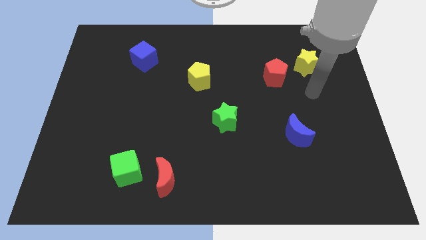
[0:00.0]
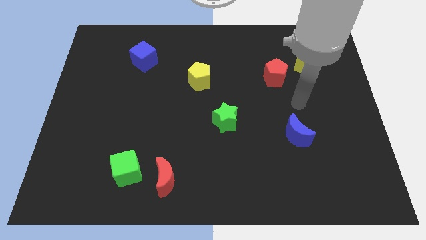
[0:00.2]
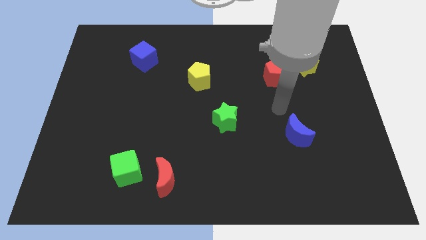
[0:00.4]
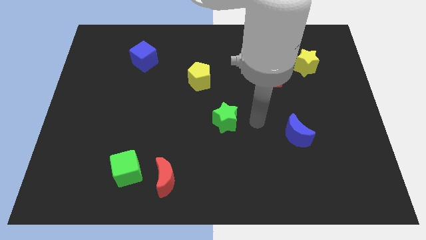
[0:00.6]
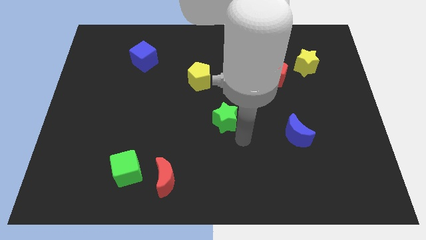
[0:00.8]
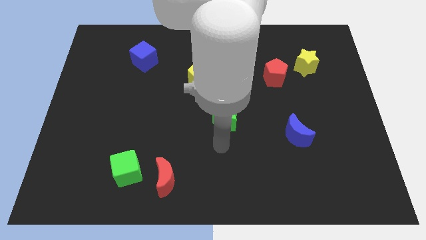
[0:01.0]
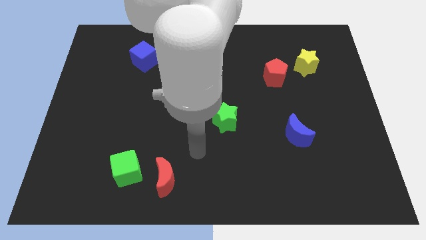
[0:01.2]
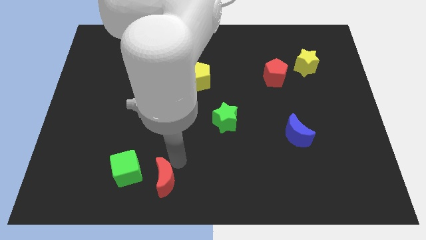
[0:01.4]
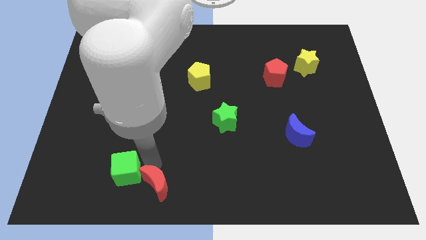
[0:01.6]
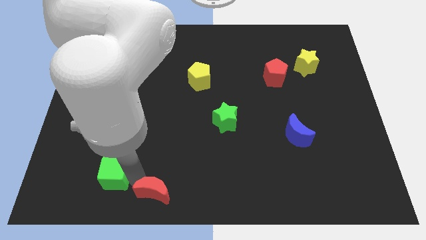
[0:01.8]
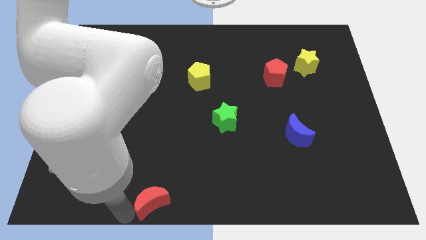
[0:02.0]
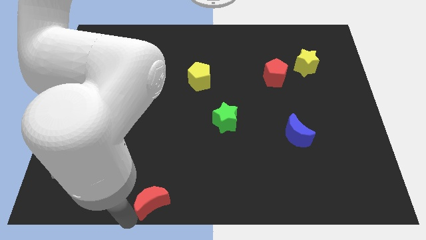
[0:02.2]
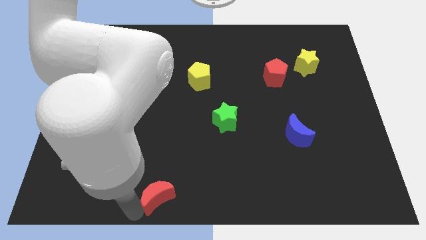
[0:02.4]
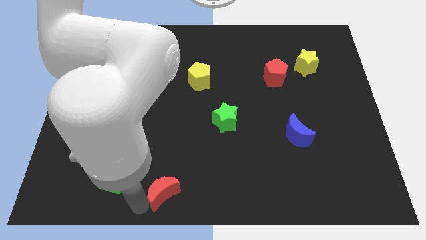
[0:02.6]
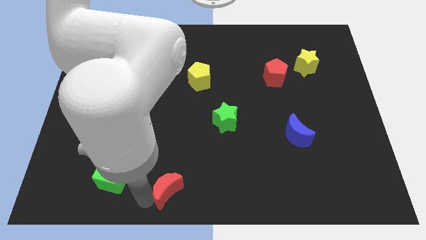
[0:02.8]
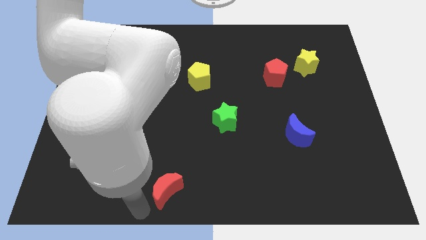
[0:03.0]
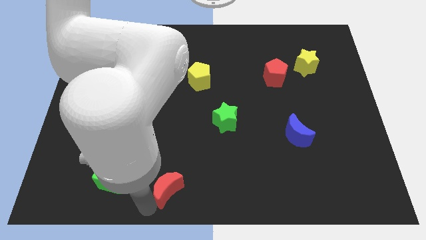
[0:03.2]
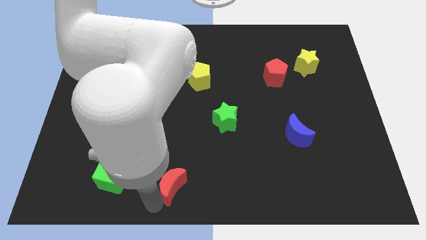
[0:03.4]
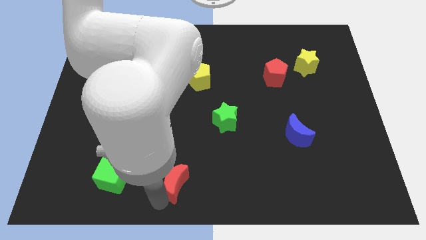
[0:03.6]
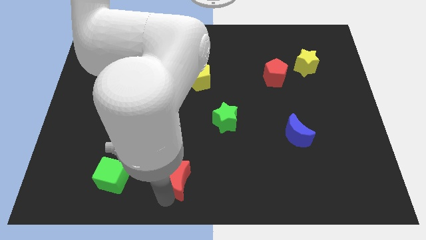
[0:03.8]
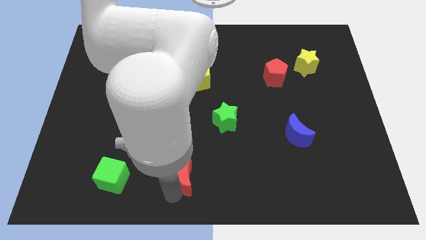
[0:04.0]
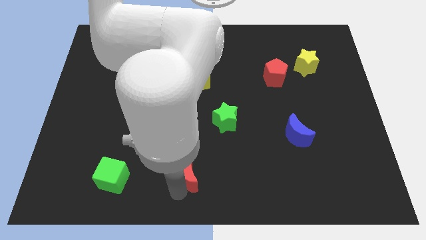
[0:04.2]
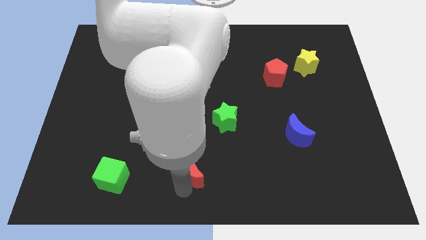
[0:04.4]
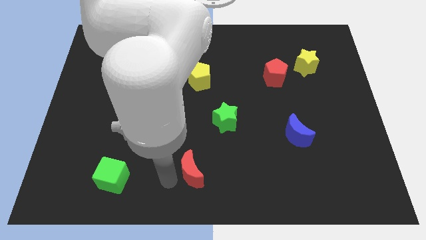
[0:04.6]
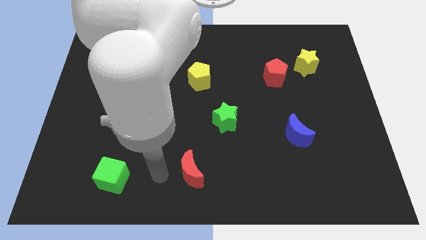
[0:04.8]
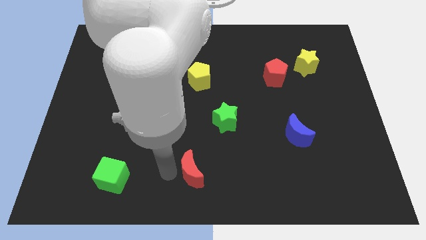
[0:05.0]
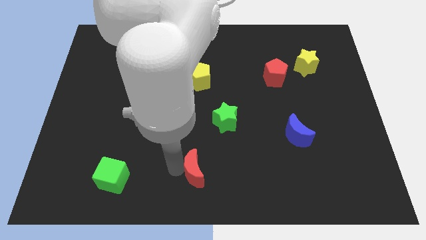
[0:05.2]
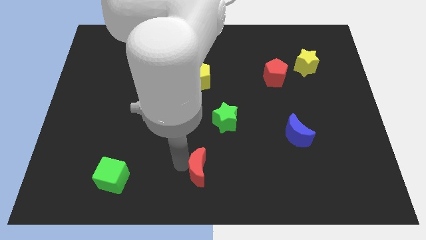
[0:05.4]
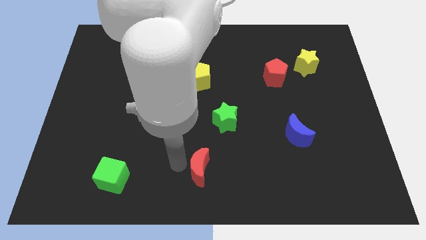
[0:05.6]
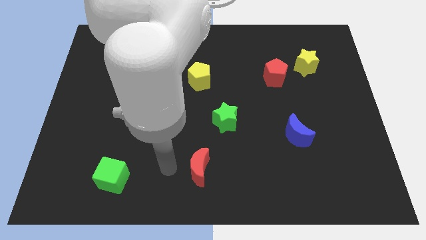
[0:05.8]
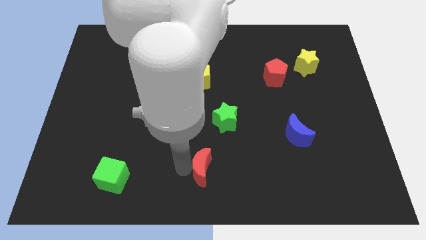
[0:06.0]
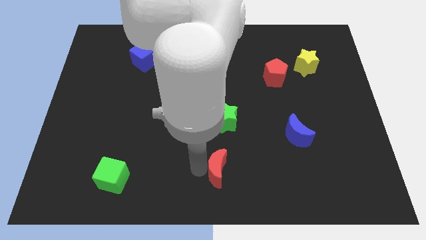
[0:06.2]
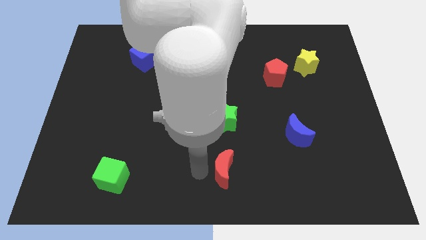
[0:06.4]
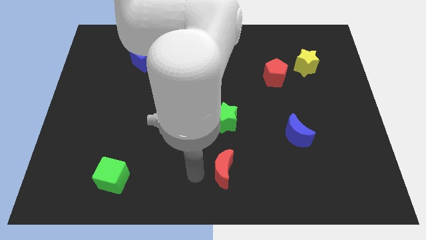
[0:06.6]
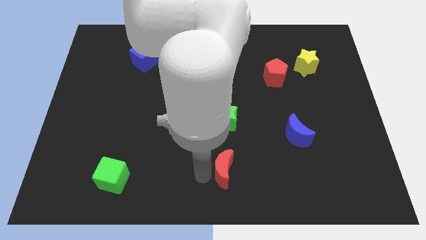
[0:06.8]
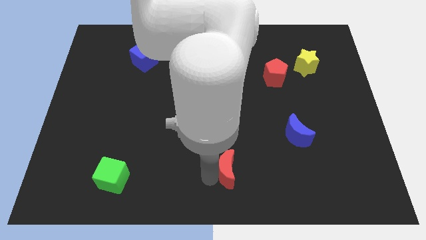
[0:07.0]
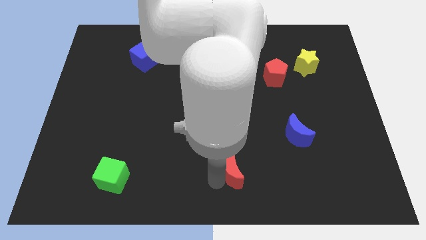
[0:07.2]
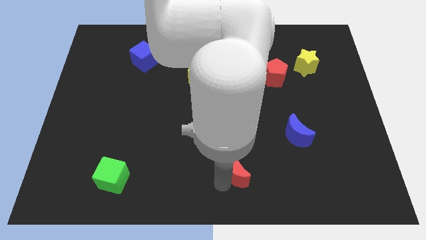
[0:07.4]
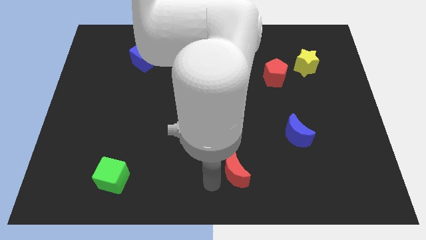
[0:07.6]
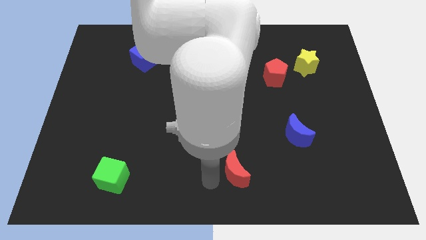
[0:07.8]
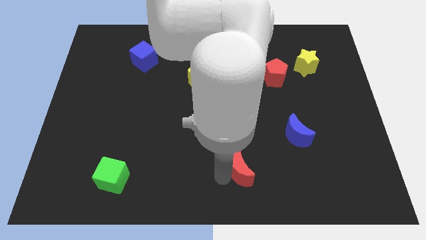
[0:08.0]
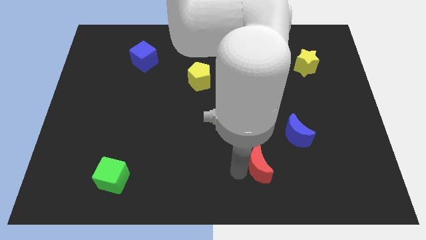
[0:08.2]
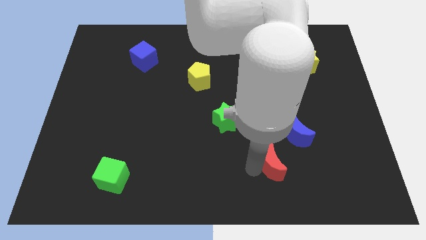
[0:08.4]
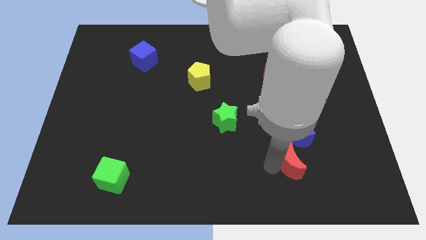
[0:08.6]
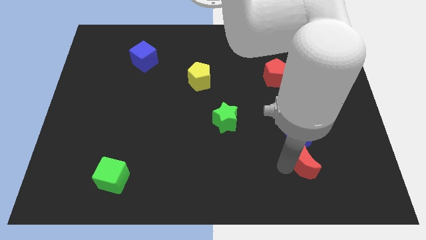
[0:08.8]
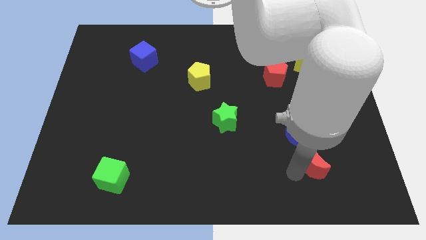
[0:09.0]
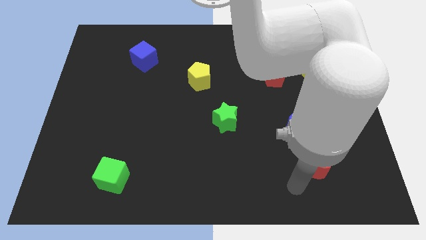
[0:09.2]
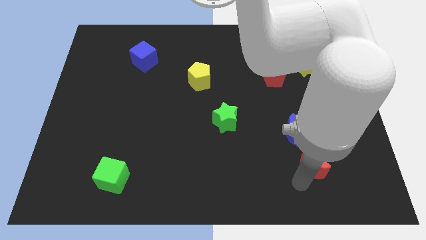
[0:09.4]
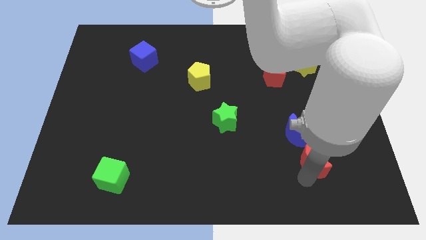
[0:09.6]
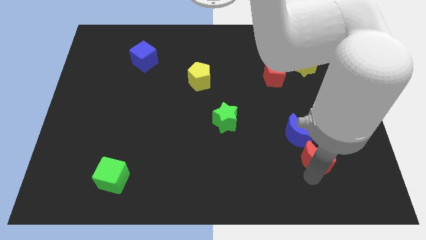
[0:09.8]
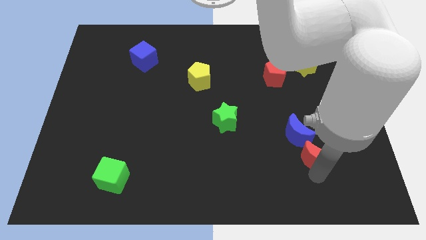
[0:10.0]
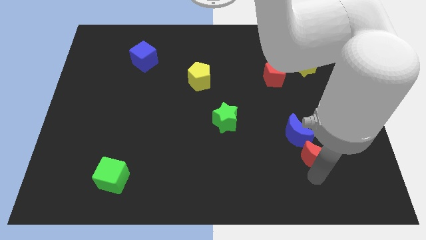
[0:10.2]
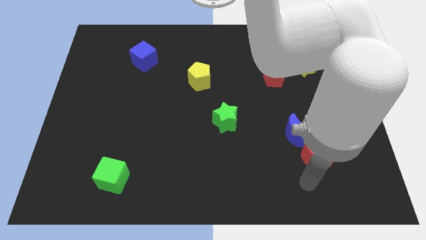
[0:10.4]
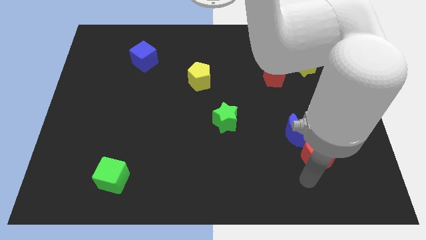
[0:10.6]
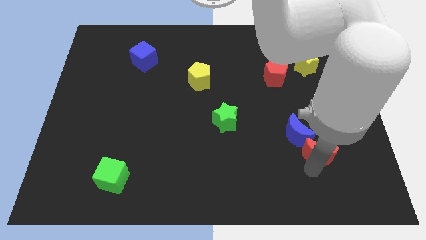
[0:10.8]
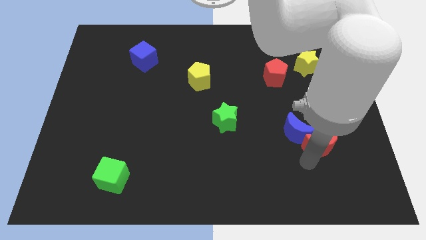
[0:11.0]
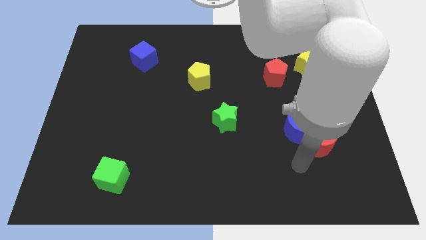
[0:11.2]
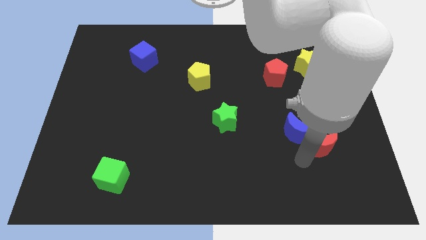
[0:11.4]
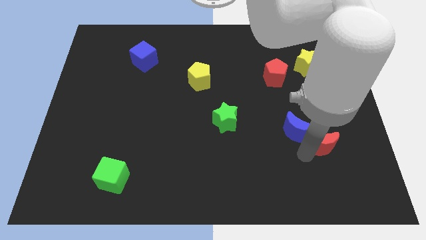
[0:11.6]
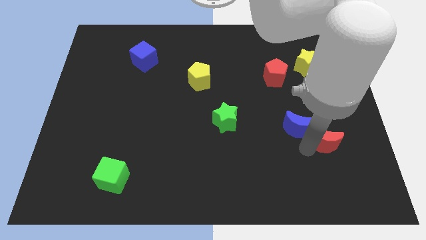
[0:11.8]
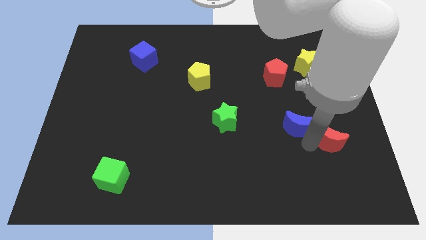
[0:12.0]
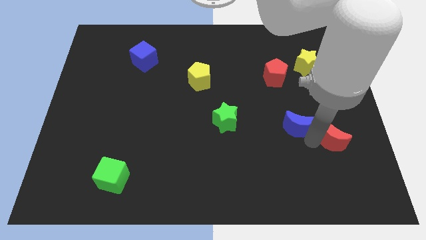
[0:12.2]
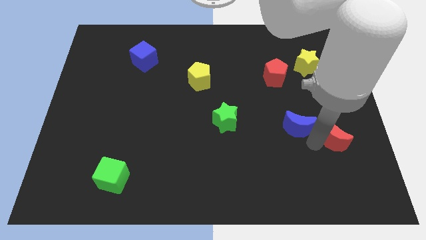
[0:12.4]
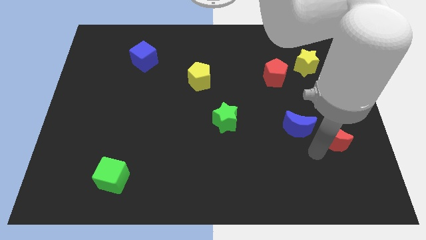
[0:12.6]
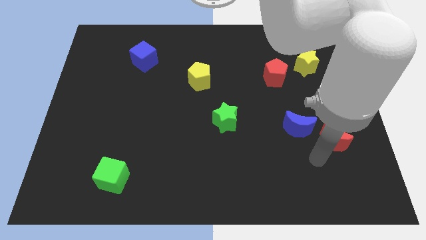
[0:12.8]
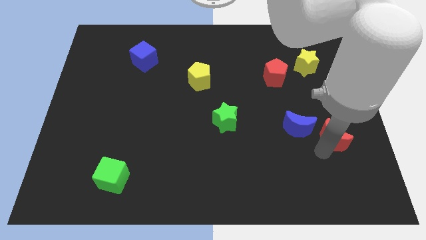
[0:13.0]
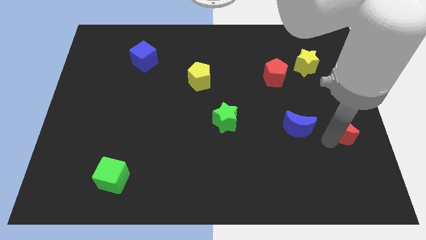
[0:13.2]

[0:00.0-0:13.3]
put the red moon to the right side of the board
